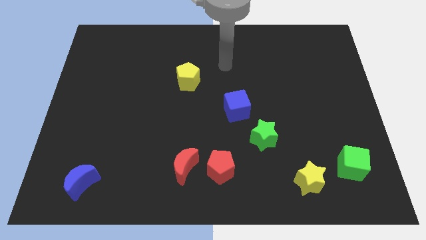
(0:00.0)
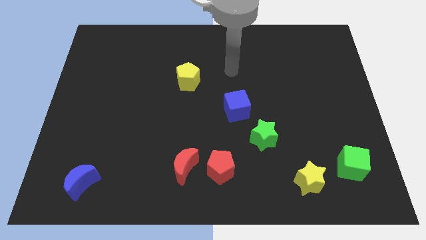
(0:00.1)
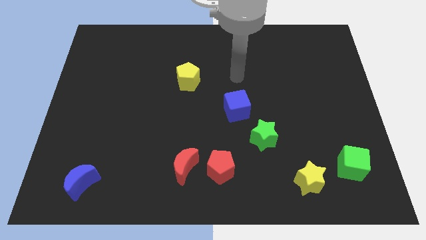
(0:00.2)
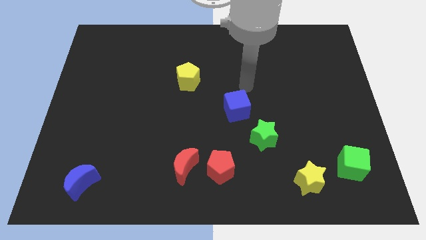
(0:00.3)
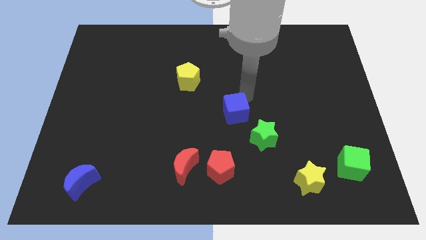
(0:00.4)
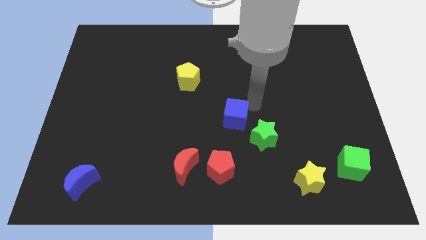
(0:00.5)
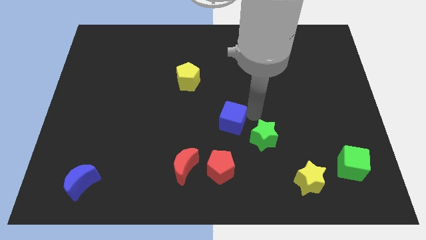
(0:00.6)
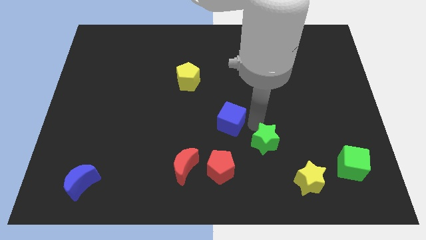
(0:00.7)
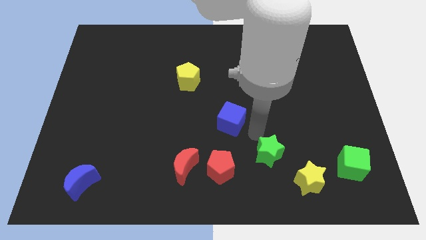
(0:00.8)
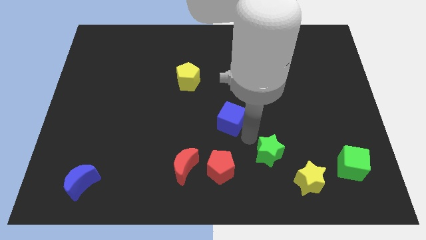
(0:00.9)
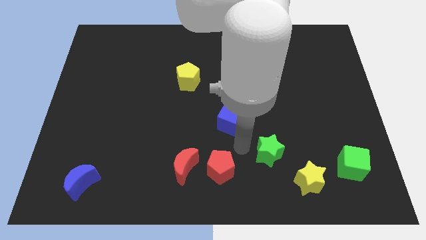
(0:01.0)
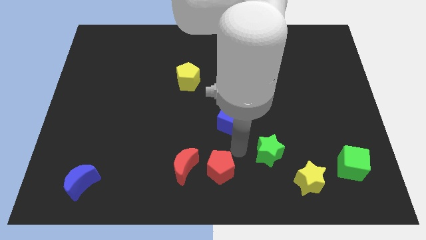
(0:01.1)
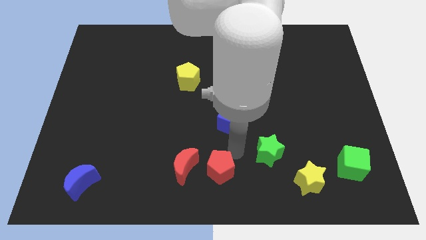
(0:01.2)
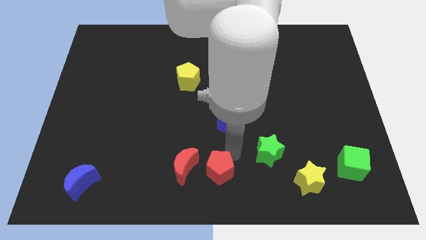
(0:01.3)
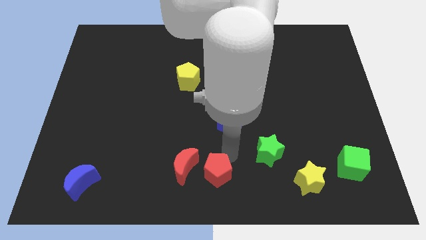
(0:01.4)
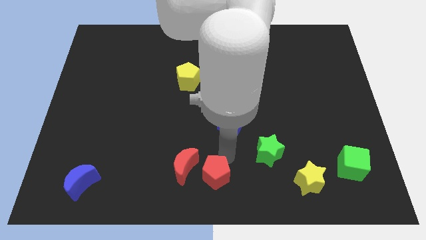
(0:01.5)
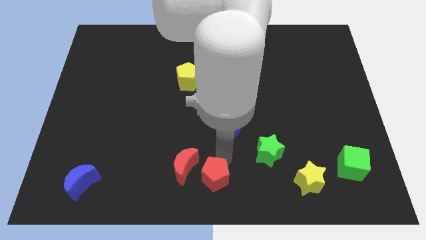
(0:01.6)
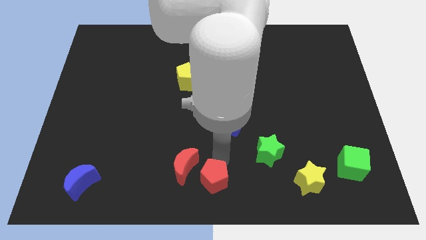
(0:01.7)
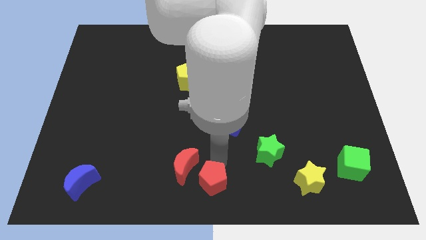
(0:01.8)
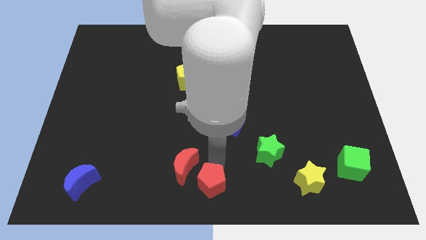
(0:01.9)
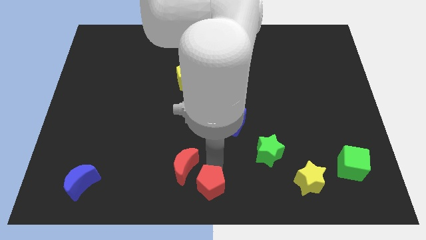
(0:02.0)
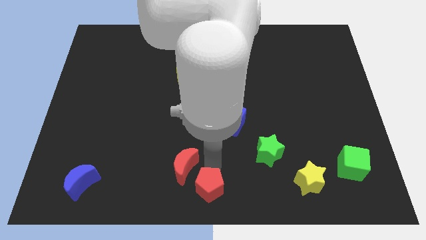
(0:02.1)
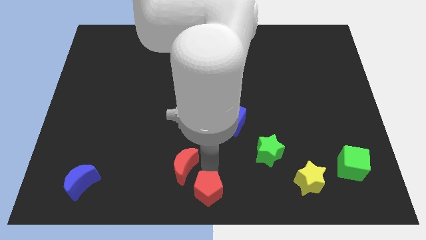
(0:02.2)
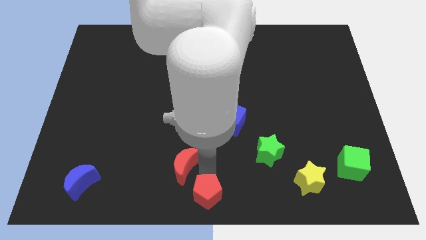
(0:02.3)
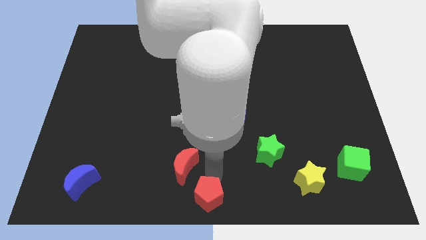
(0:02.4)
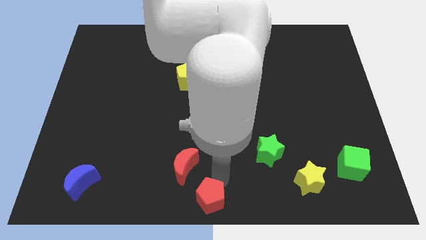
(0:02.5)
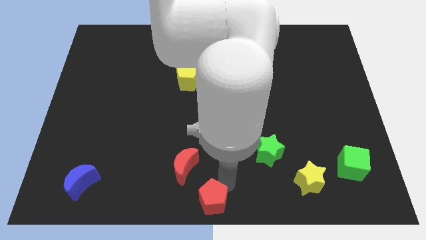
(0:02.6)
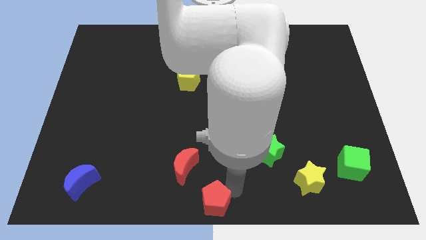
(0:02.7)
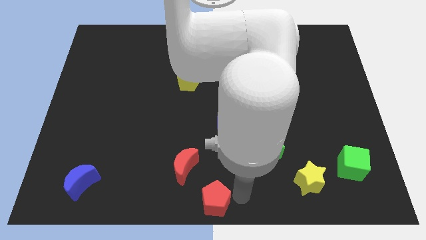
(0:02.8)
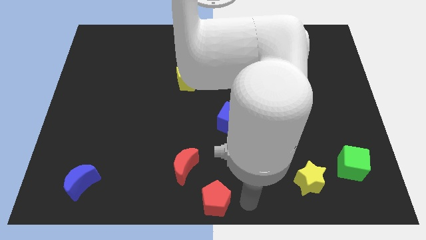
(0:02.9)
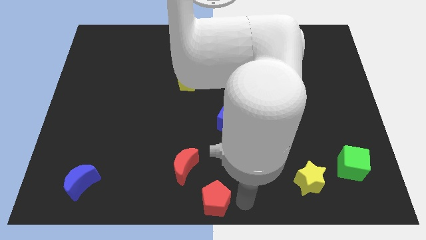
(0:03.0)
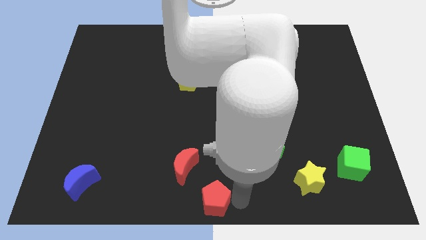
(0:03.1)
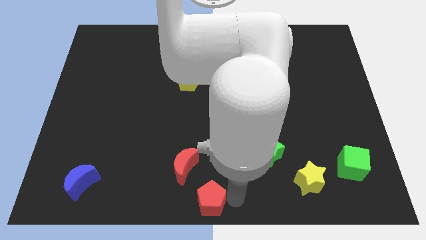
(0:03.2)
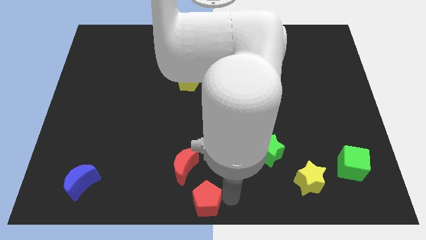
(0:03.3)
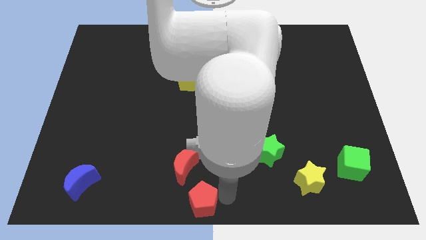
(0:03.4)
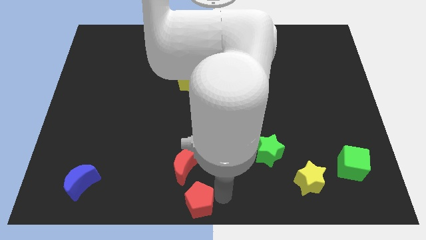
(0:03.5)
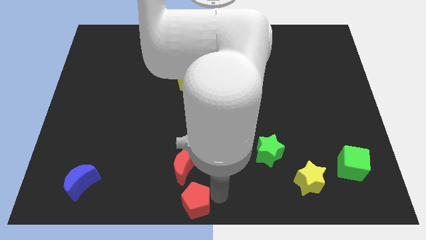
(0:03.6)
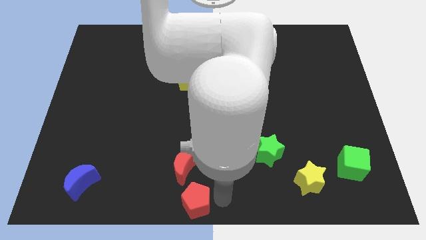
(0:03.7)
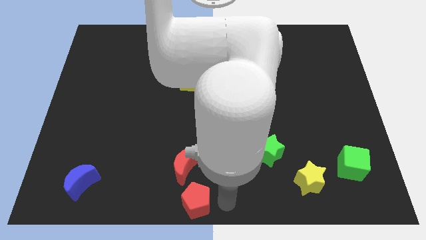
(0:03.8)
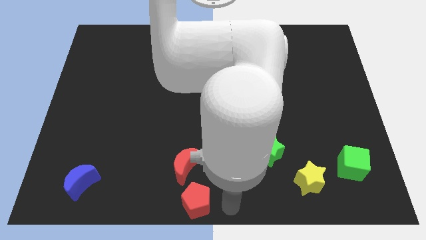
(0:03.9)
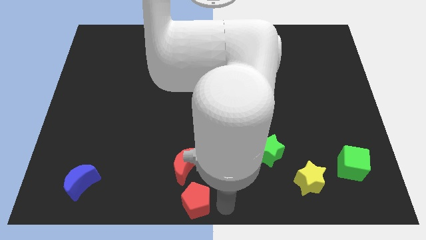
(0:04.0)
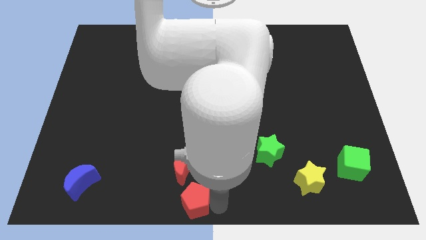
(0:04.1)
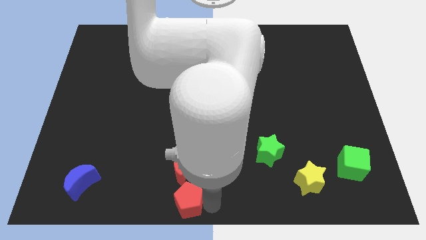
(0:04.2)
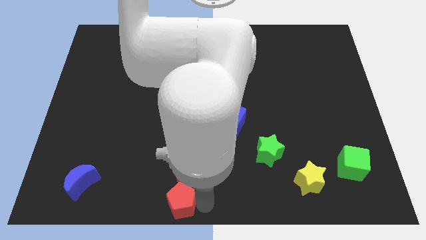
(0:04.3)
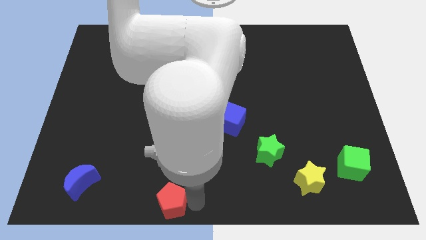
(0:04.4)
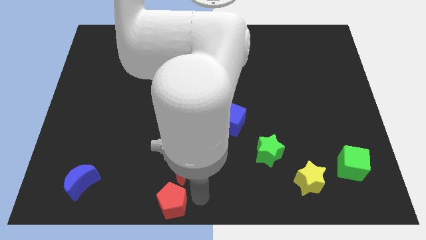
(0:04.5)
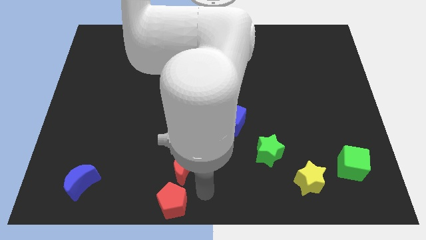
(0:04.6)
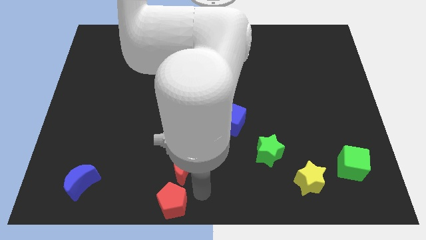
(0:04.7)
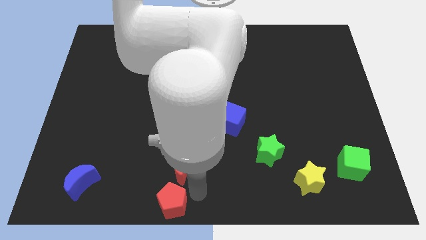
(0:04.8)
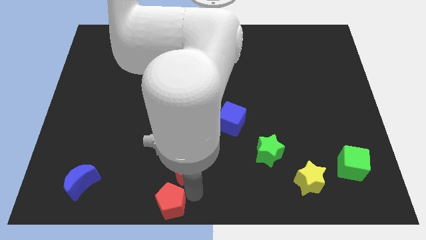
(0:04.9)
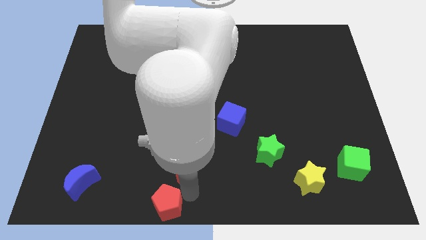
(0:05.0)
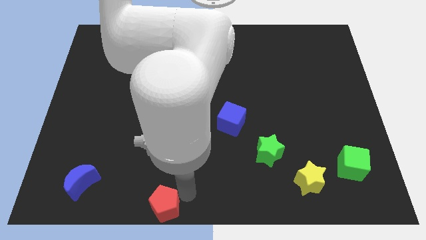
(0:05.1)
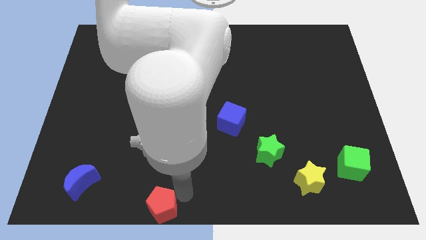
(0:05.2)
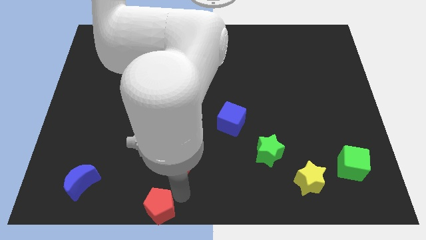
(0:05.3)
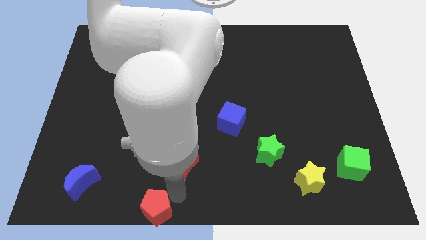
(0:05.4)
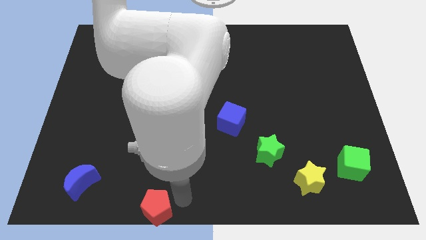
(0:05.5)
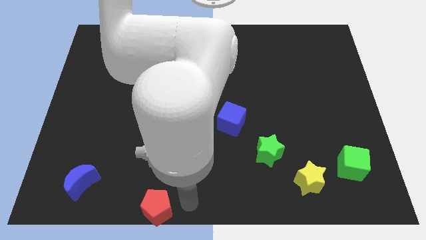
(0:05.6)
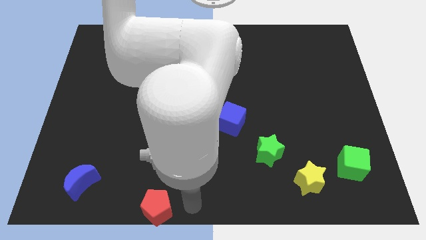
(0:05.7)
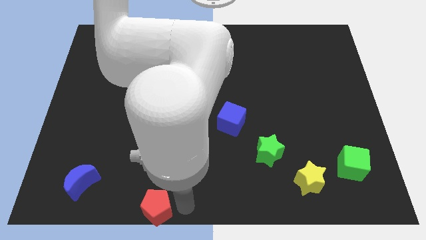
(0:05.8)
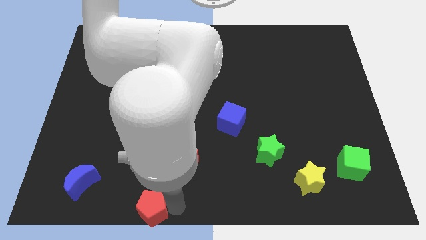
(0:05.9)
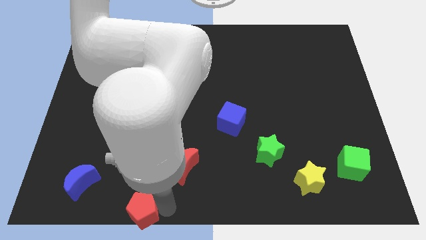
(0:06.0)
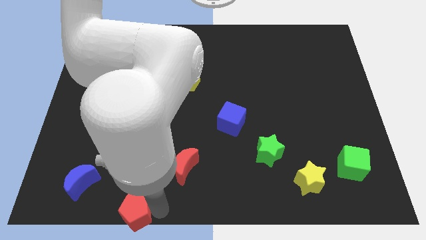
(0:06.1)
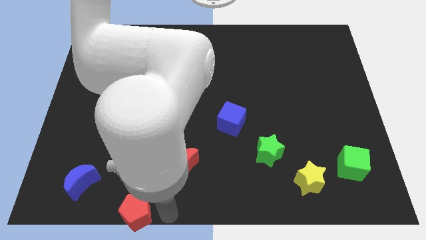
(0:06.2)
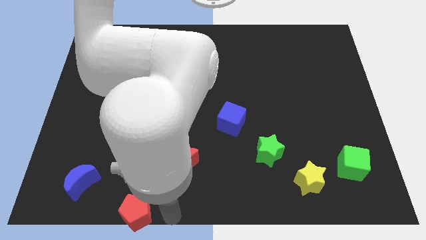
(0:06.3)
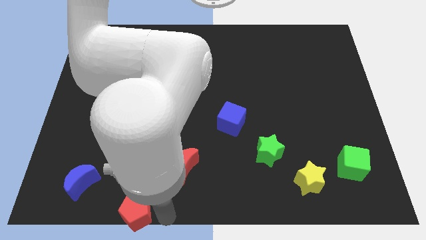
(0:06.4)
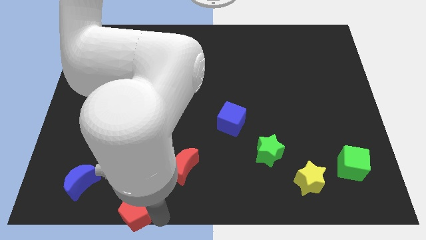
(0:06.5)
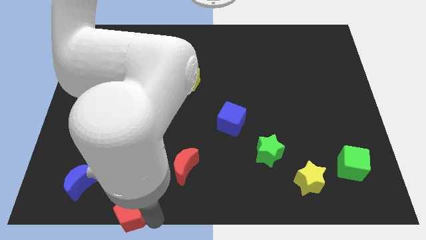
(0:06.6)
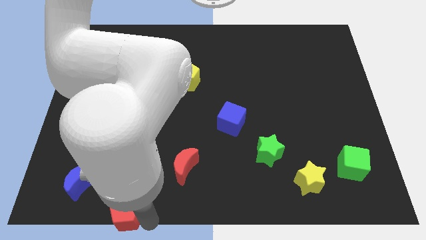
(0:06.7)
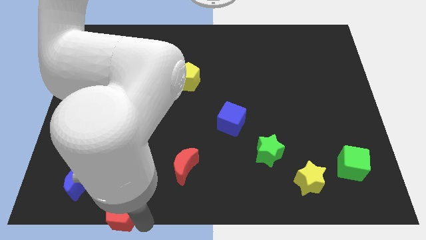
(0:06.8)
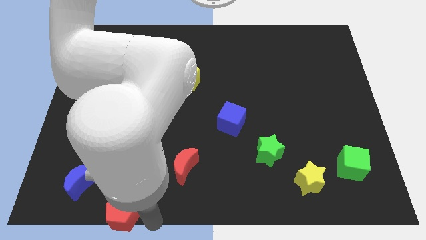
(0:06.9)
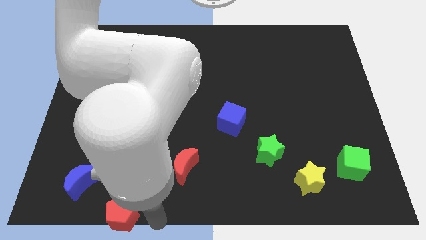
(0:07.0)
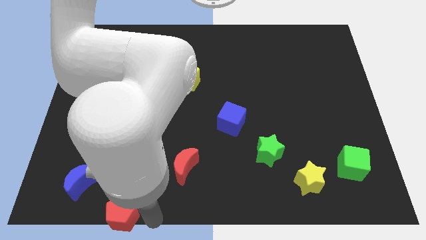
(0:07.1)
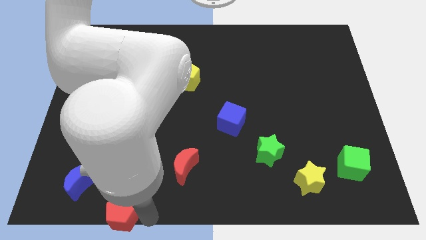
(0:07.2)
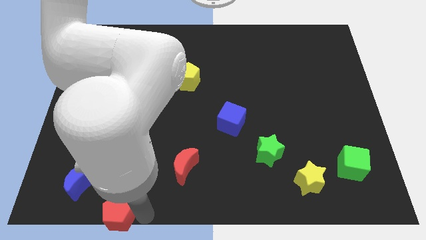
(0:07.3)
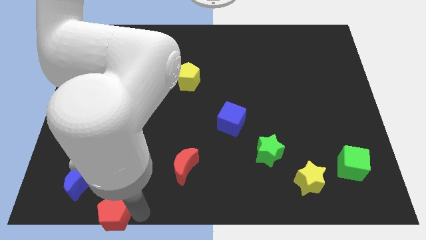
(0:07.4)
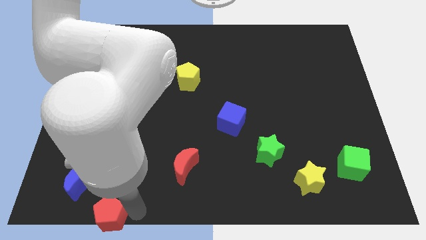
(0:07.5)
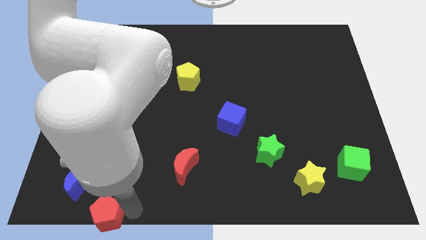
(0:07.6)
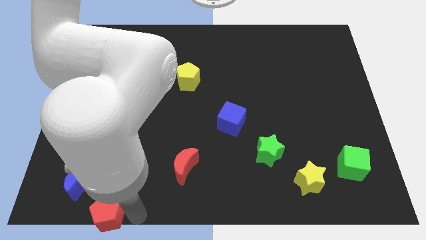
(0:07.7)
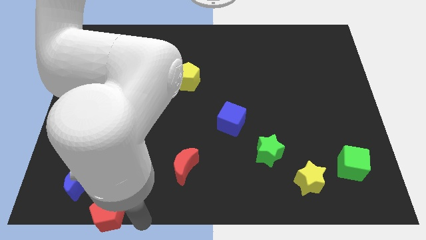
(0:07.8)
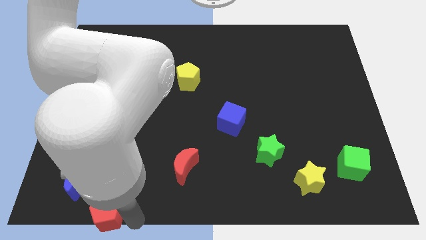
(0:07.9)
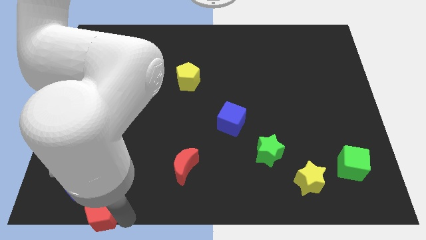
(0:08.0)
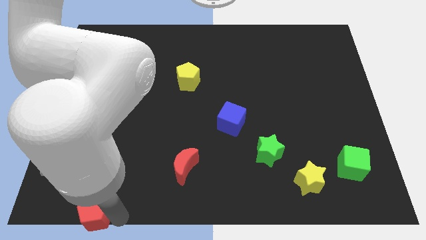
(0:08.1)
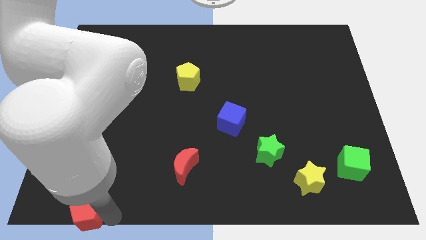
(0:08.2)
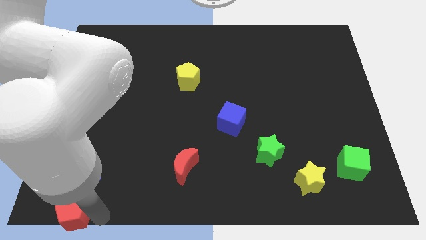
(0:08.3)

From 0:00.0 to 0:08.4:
put the red pentagon to the lower left corner
